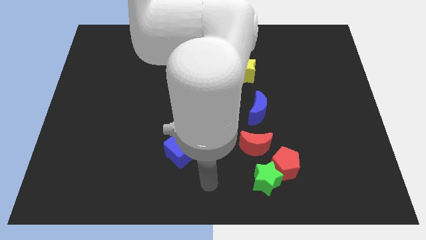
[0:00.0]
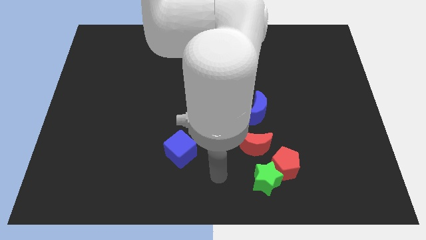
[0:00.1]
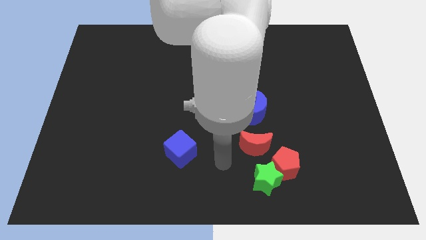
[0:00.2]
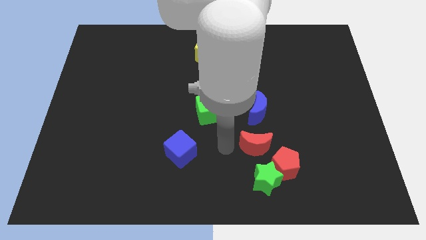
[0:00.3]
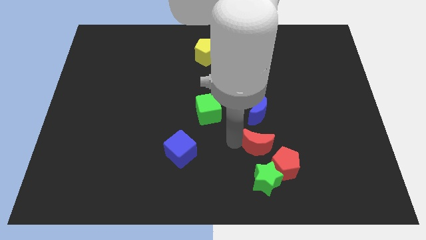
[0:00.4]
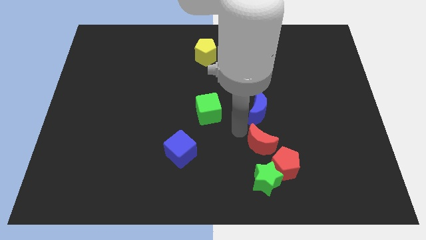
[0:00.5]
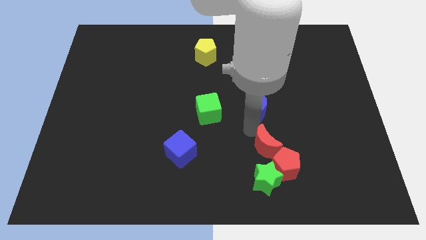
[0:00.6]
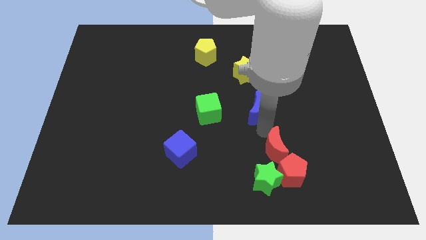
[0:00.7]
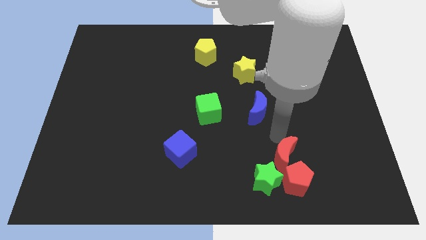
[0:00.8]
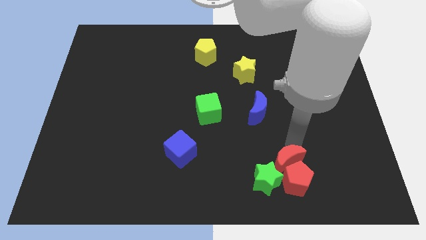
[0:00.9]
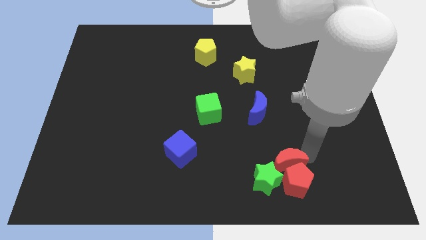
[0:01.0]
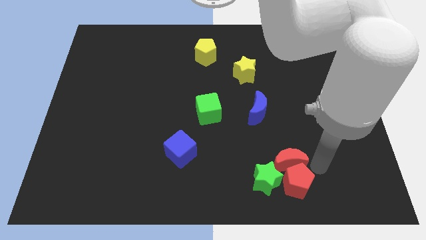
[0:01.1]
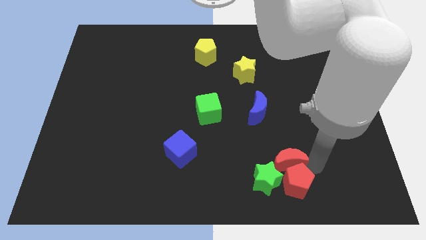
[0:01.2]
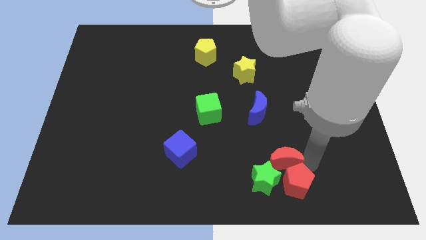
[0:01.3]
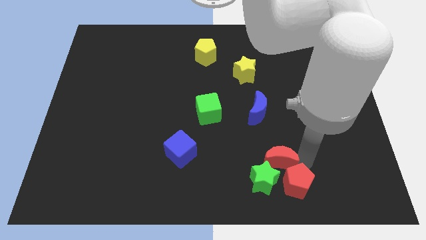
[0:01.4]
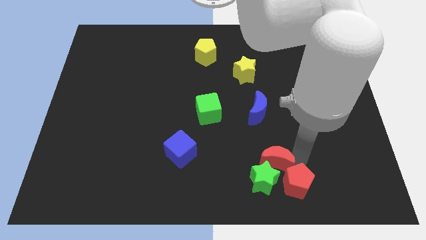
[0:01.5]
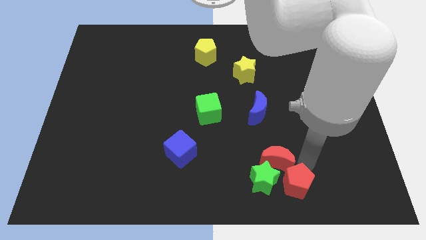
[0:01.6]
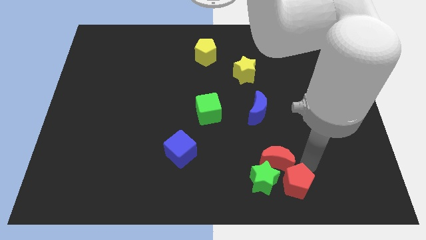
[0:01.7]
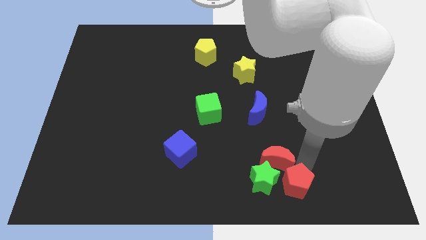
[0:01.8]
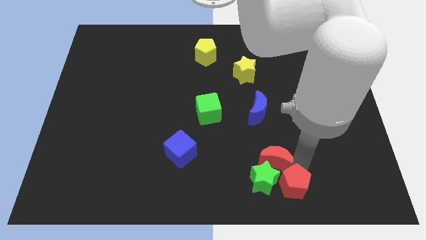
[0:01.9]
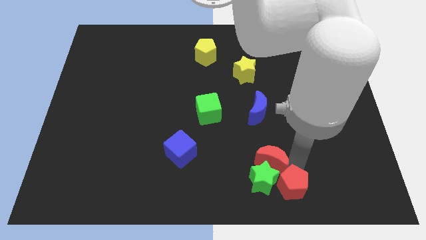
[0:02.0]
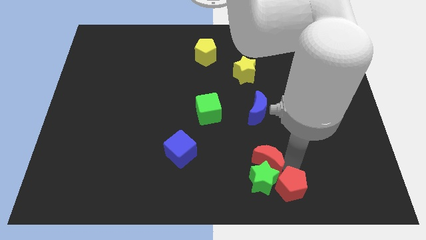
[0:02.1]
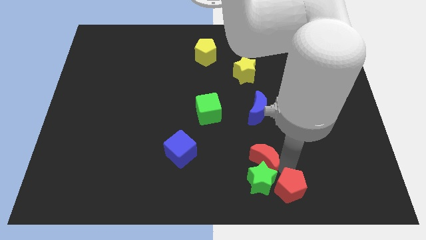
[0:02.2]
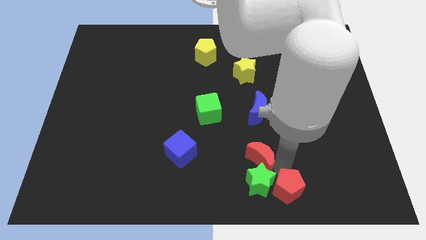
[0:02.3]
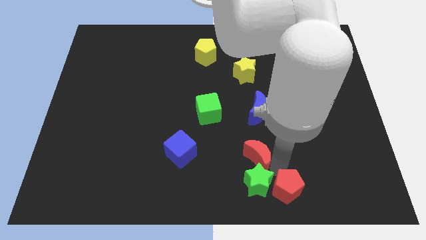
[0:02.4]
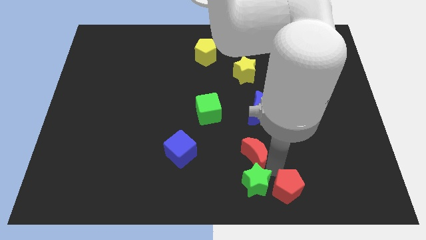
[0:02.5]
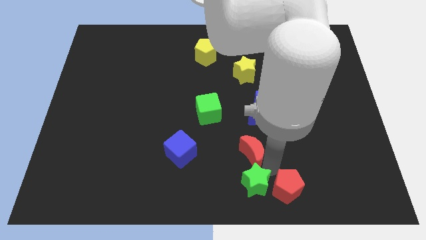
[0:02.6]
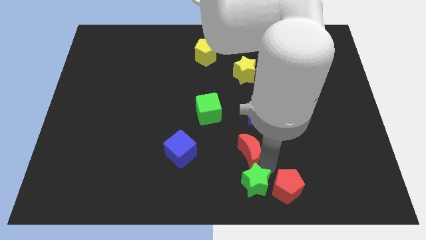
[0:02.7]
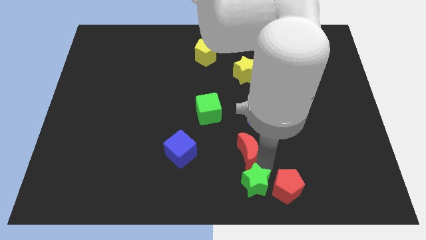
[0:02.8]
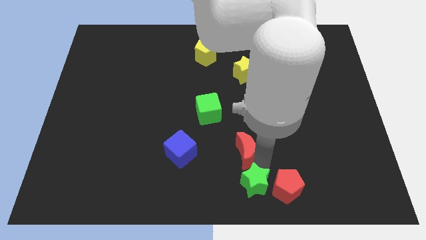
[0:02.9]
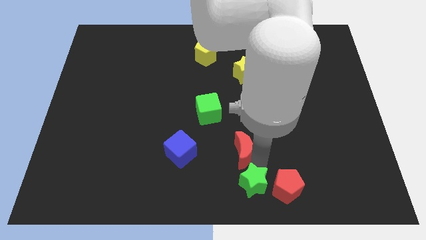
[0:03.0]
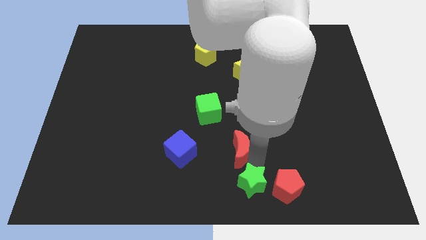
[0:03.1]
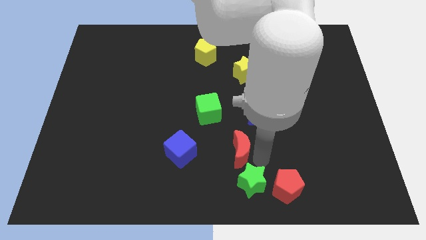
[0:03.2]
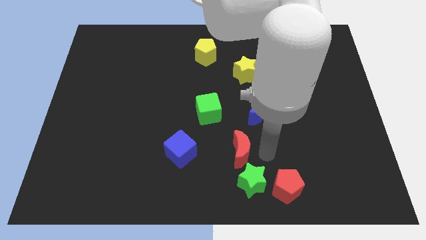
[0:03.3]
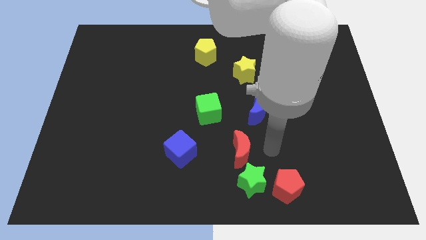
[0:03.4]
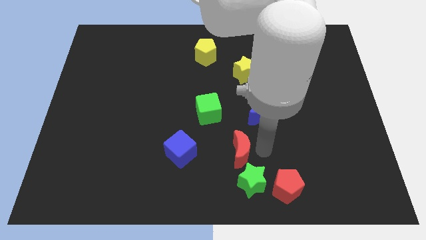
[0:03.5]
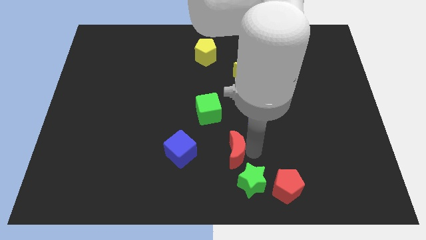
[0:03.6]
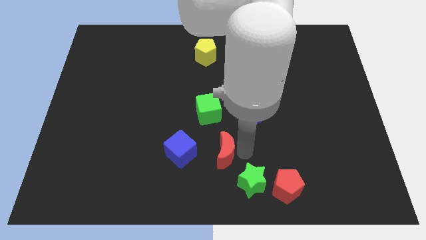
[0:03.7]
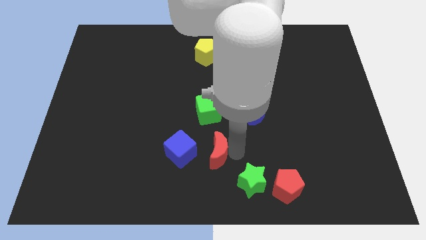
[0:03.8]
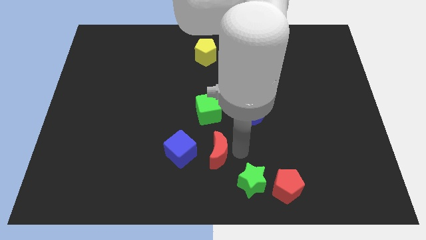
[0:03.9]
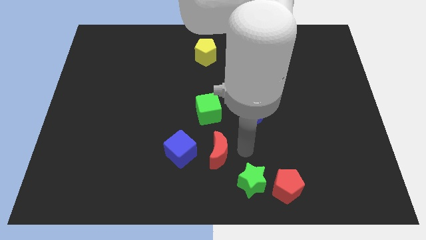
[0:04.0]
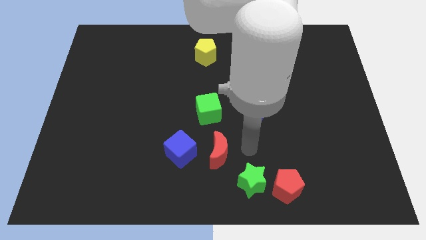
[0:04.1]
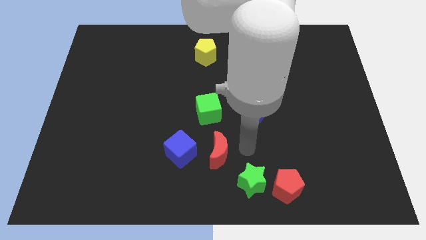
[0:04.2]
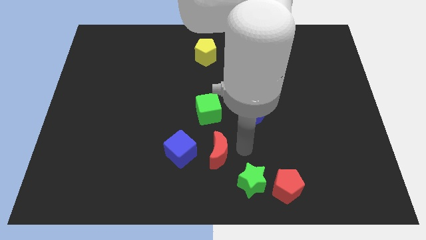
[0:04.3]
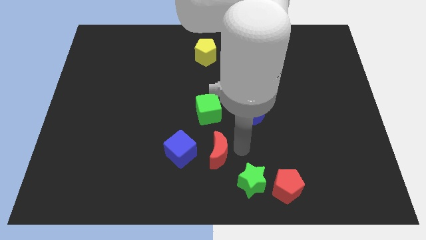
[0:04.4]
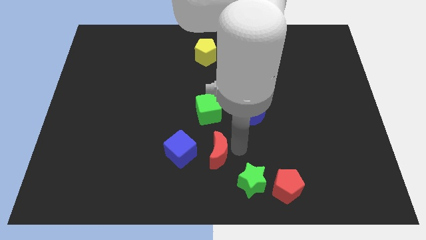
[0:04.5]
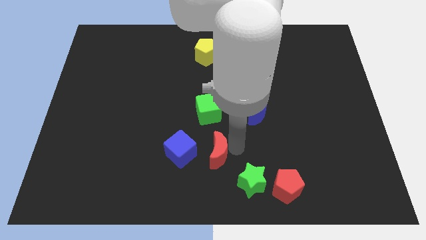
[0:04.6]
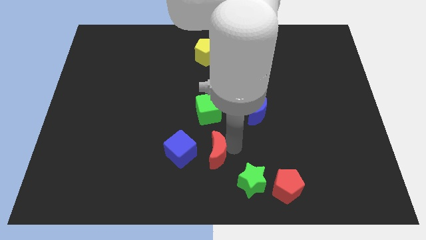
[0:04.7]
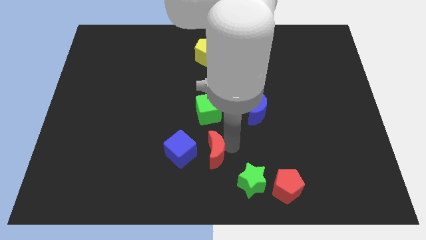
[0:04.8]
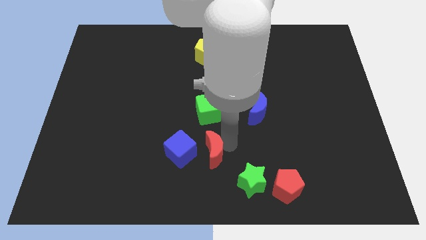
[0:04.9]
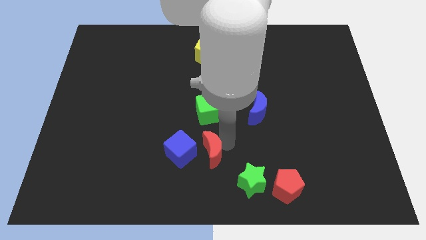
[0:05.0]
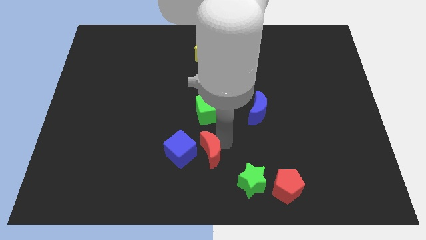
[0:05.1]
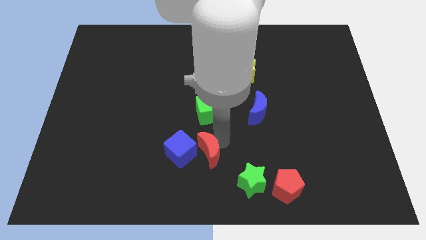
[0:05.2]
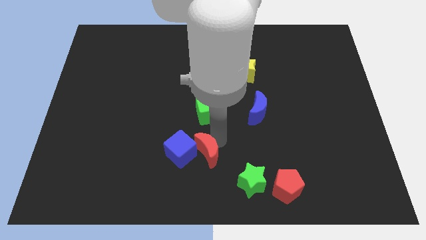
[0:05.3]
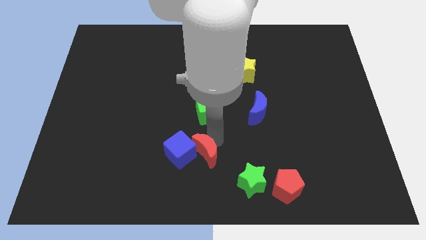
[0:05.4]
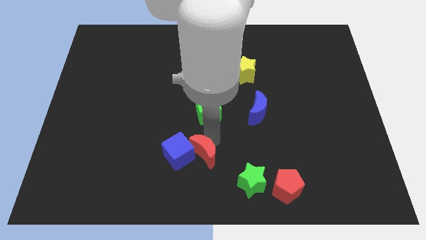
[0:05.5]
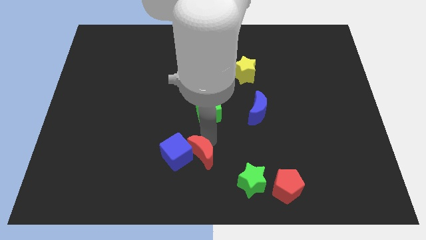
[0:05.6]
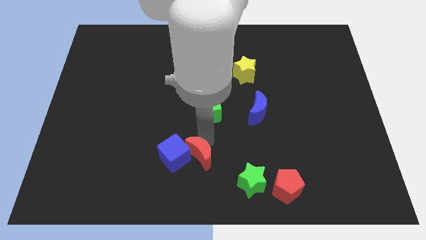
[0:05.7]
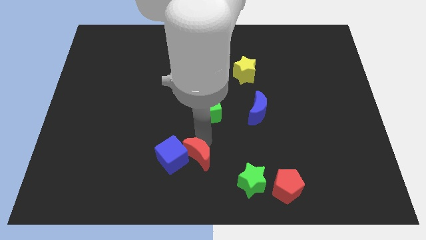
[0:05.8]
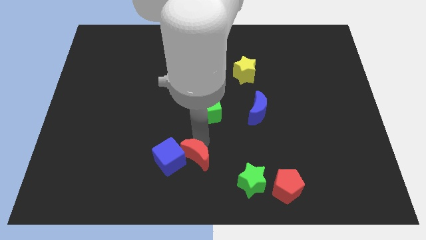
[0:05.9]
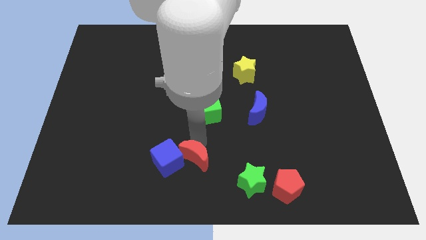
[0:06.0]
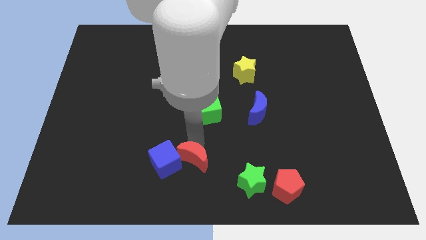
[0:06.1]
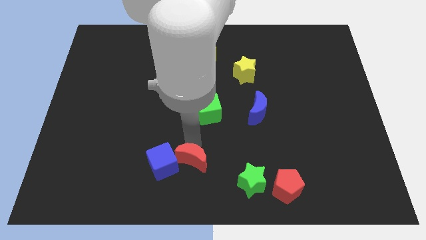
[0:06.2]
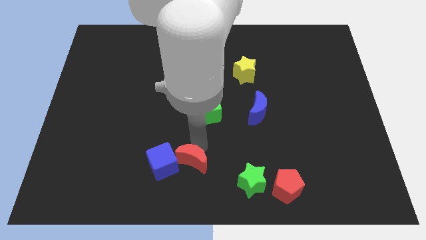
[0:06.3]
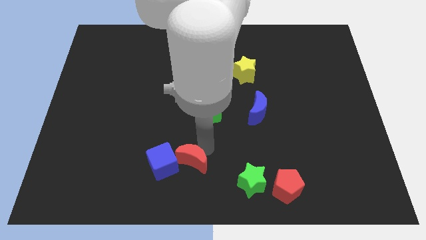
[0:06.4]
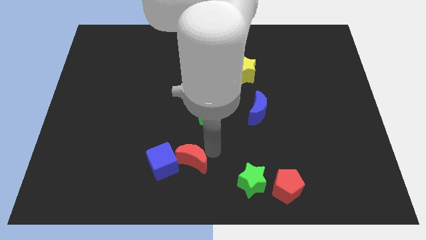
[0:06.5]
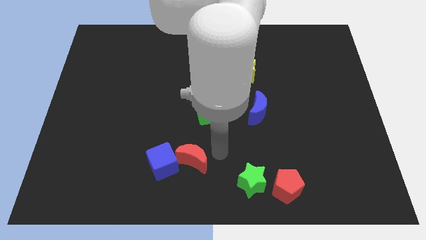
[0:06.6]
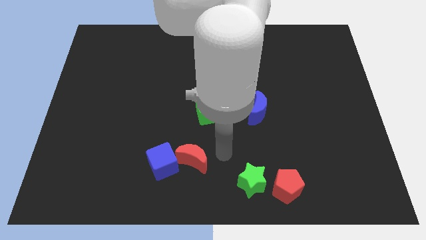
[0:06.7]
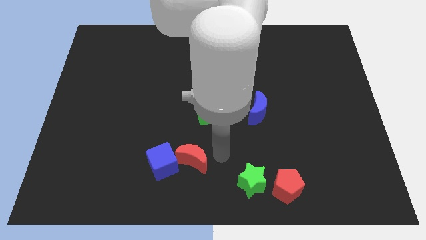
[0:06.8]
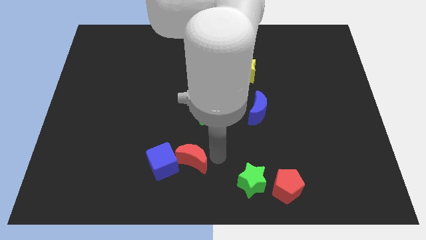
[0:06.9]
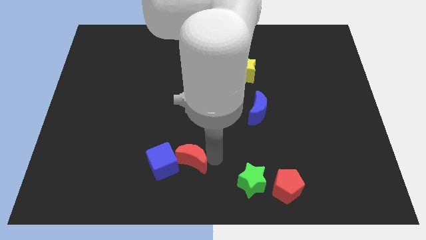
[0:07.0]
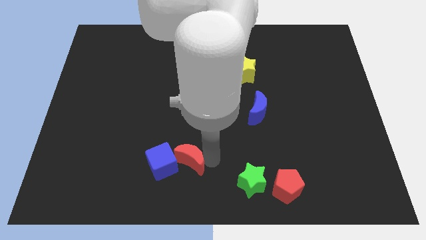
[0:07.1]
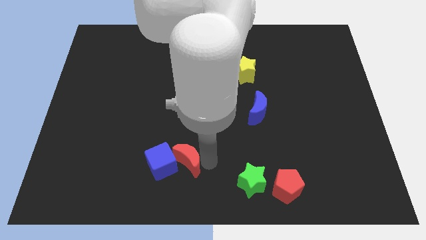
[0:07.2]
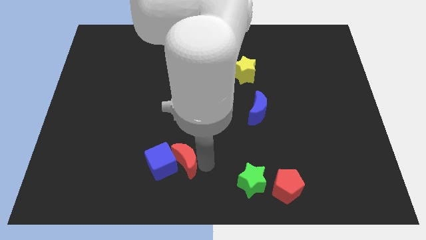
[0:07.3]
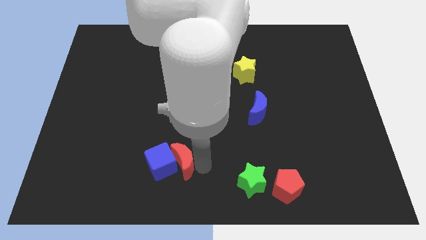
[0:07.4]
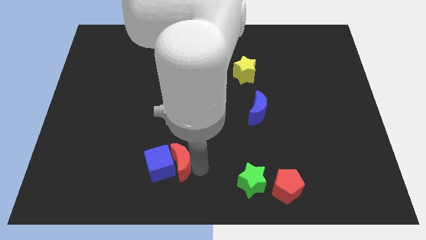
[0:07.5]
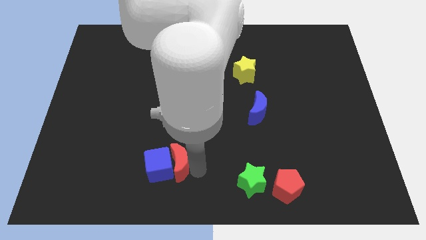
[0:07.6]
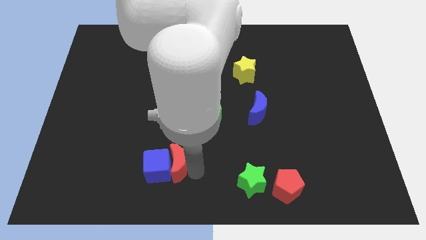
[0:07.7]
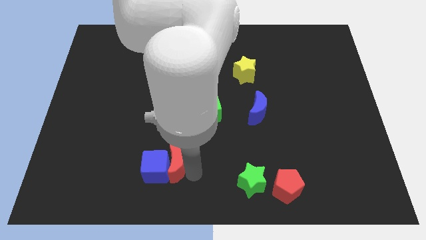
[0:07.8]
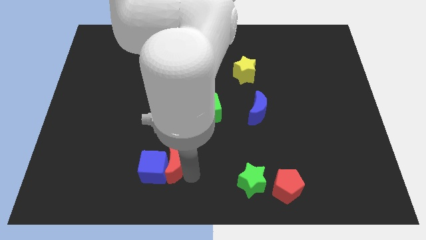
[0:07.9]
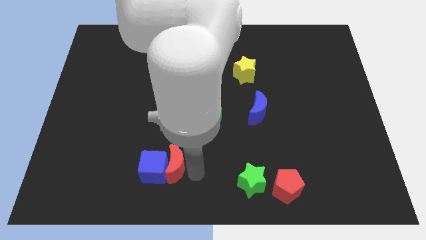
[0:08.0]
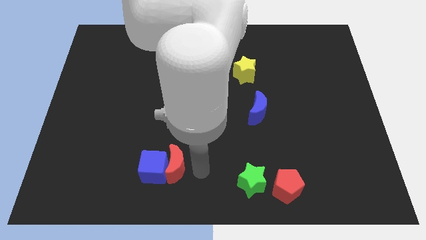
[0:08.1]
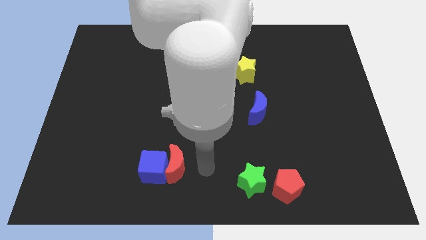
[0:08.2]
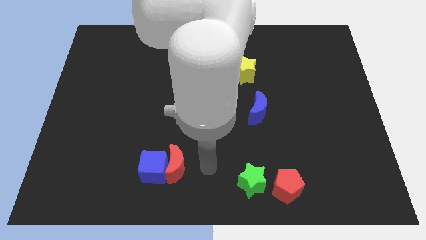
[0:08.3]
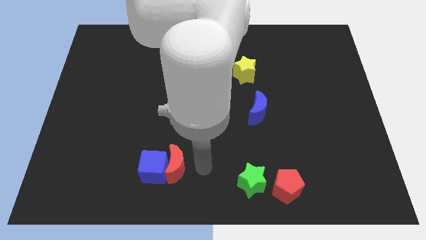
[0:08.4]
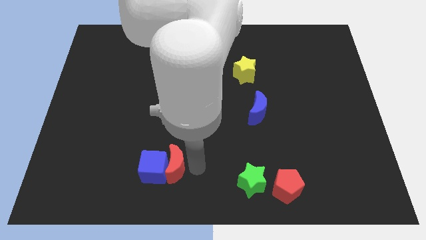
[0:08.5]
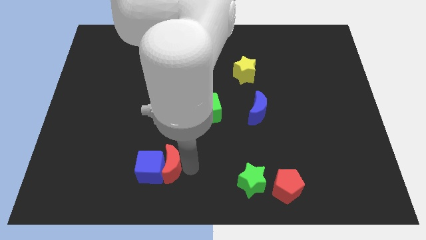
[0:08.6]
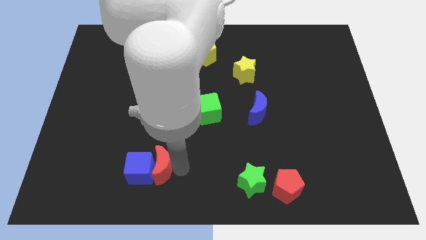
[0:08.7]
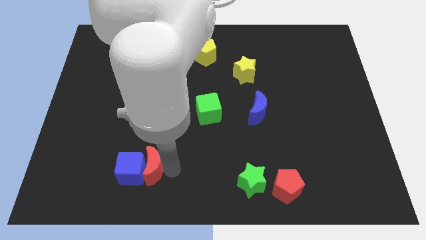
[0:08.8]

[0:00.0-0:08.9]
push the red moon left
